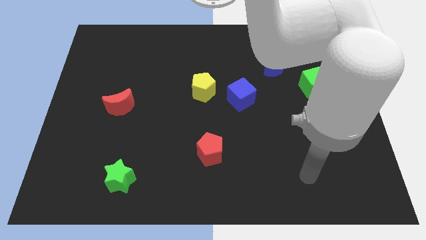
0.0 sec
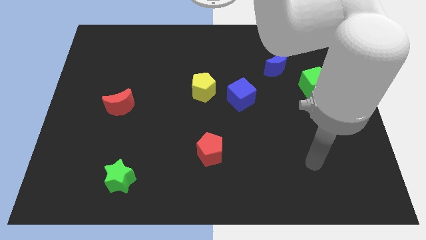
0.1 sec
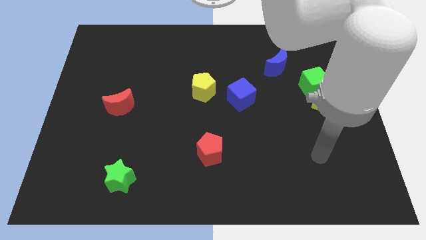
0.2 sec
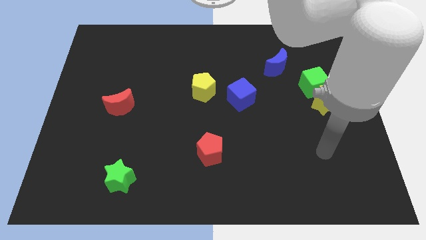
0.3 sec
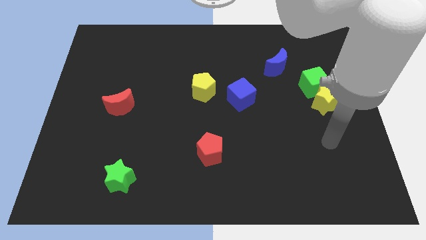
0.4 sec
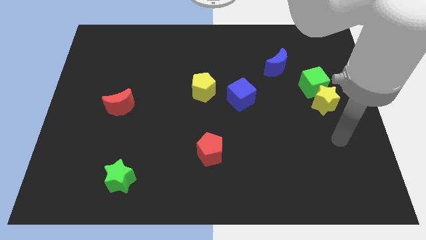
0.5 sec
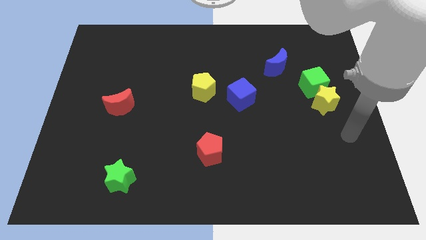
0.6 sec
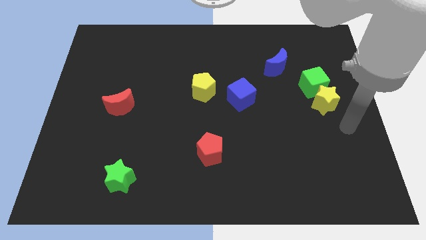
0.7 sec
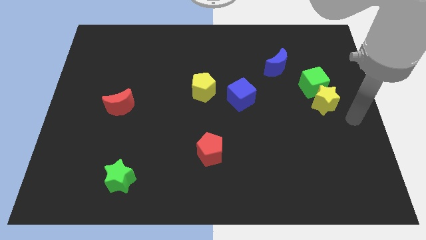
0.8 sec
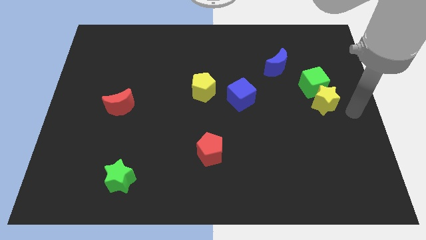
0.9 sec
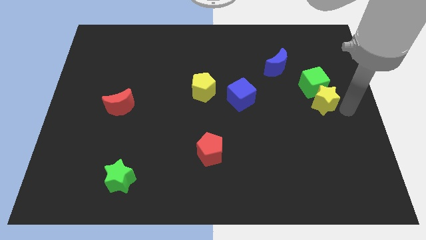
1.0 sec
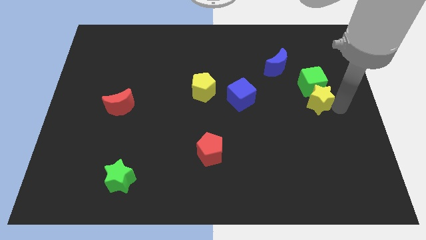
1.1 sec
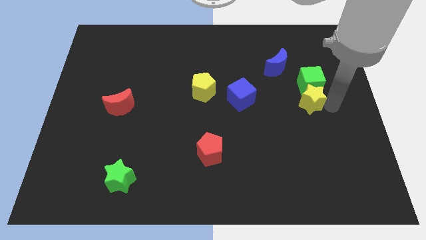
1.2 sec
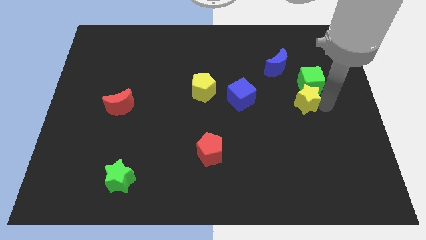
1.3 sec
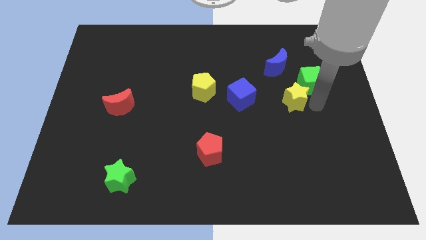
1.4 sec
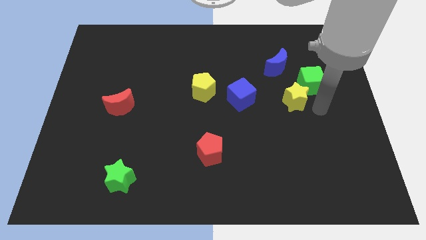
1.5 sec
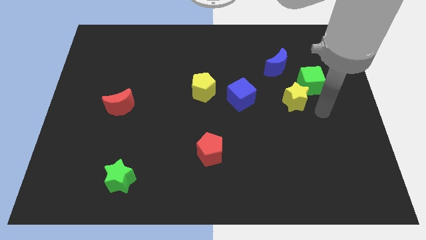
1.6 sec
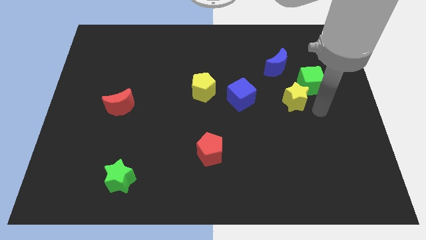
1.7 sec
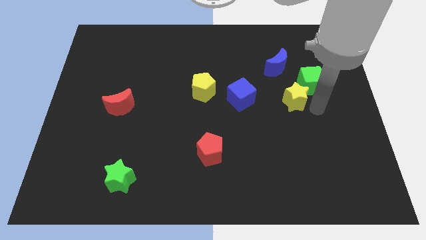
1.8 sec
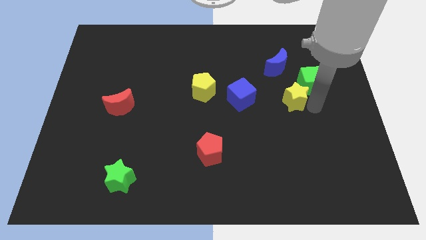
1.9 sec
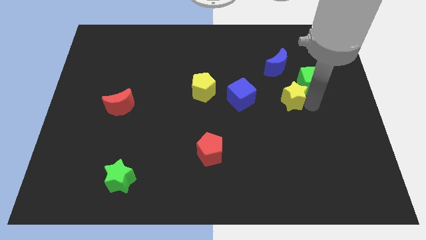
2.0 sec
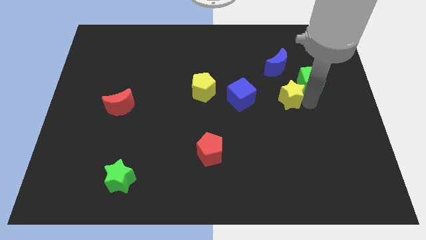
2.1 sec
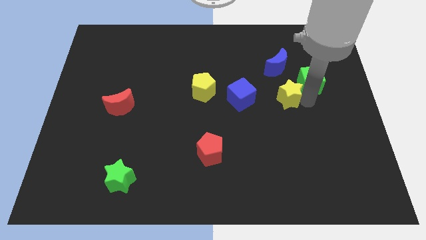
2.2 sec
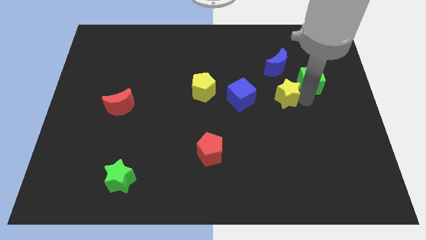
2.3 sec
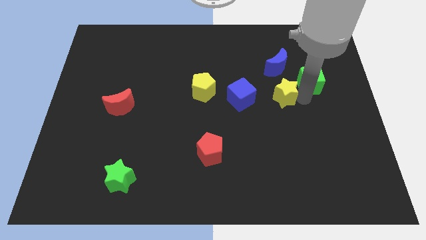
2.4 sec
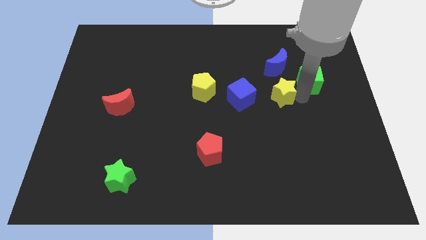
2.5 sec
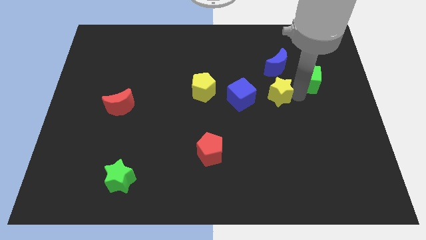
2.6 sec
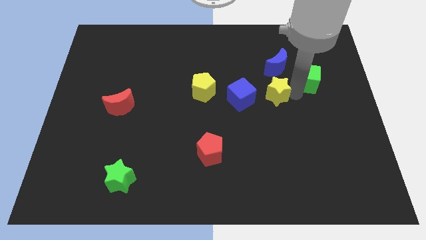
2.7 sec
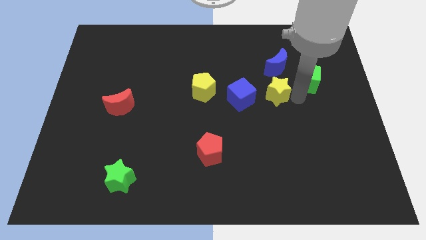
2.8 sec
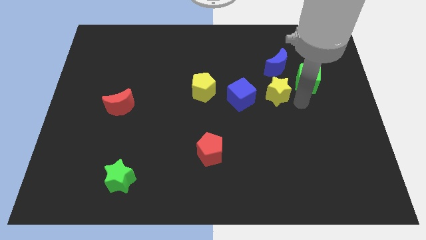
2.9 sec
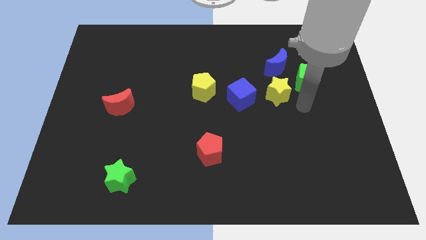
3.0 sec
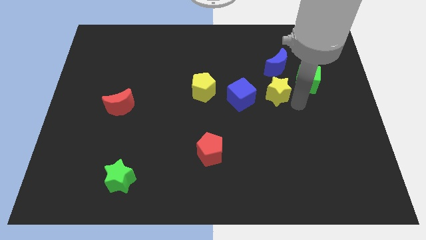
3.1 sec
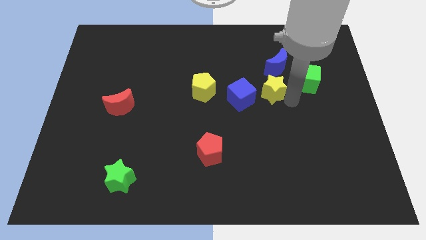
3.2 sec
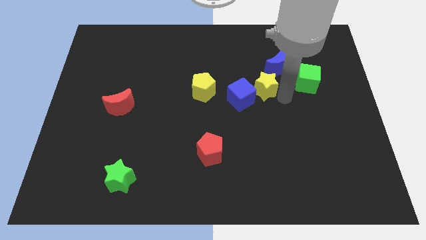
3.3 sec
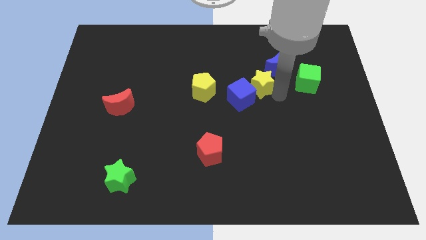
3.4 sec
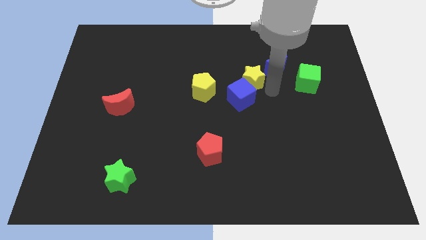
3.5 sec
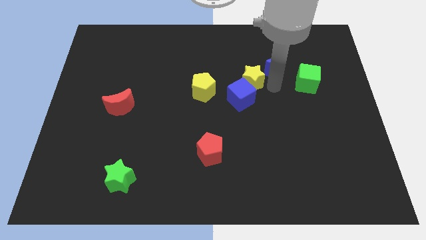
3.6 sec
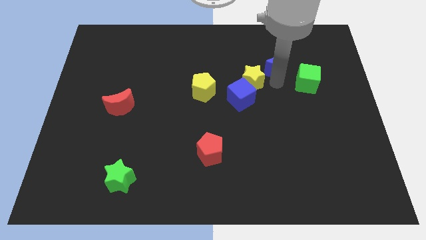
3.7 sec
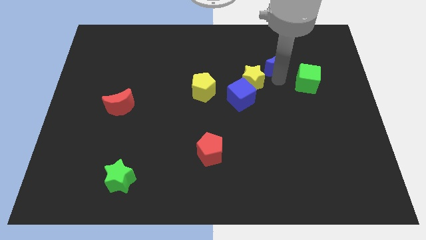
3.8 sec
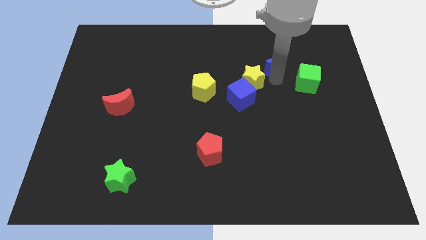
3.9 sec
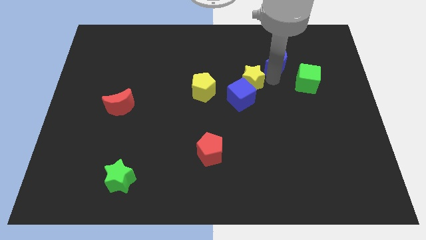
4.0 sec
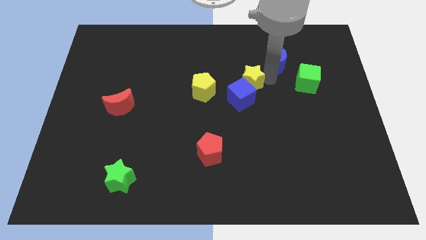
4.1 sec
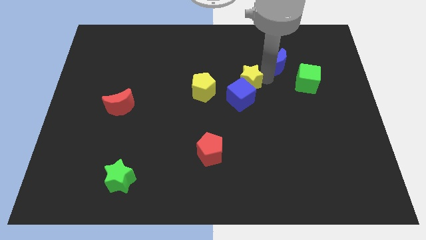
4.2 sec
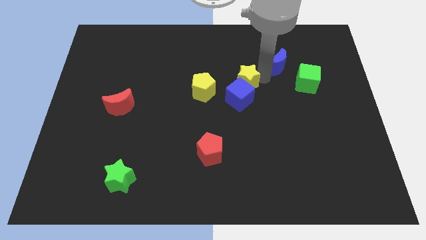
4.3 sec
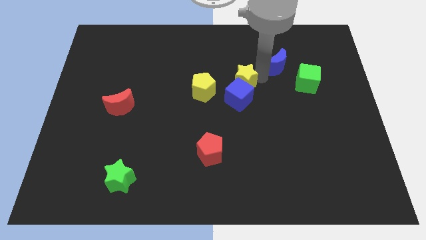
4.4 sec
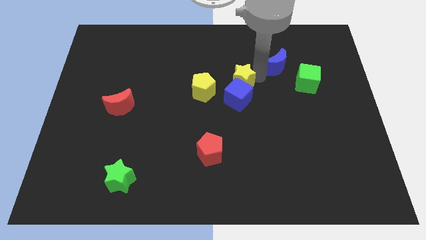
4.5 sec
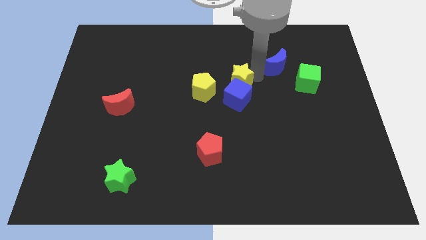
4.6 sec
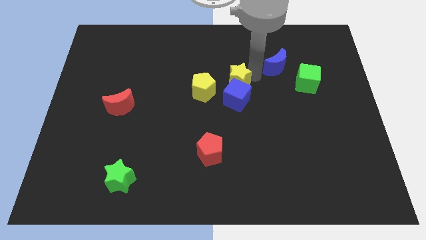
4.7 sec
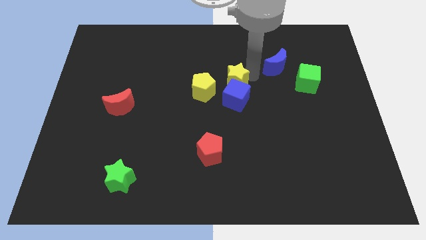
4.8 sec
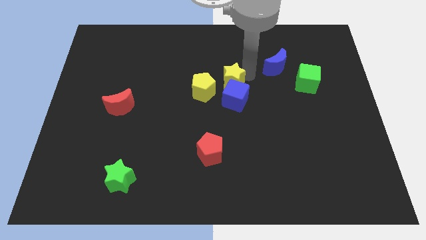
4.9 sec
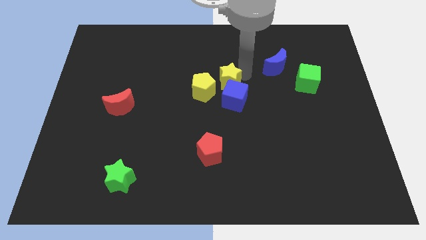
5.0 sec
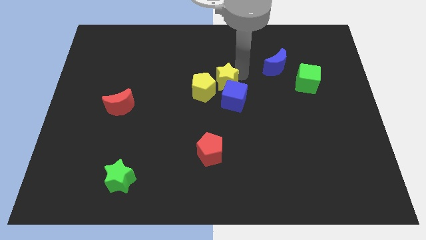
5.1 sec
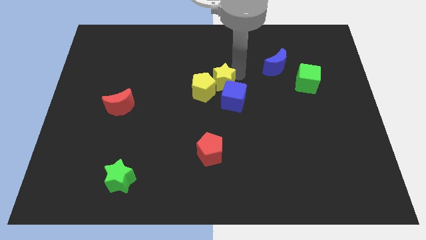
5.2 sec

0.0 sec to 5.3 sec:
move the yellow star next to the yellow pentagon

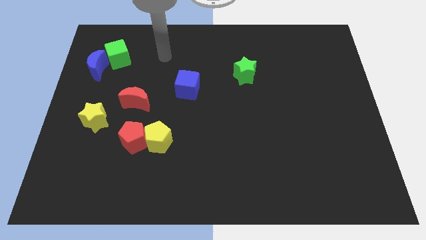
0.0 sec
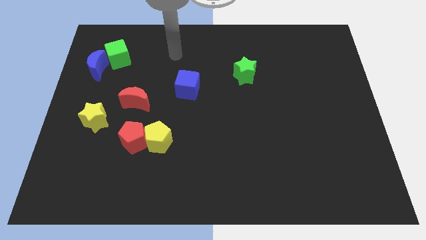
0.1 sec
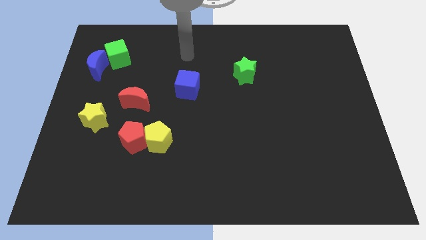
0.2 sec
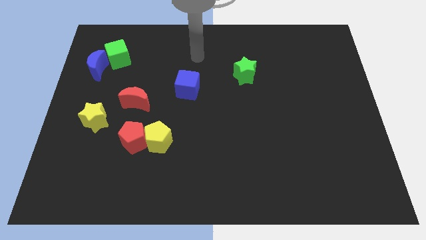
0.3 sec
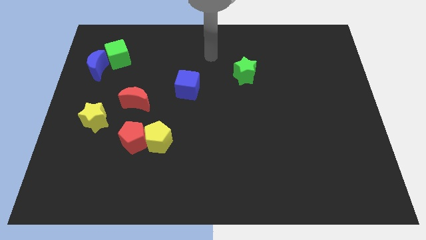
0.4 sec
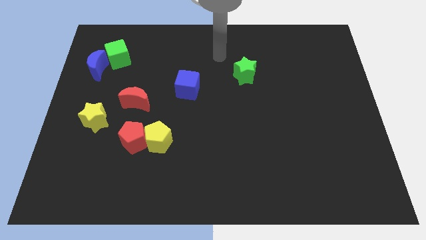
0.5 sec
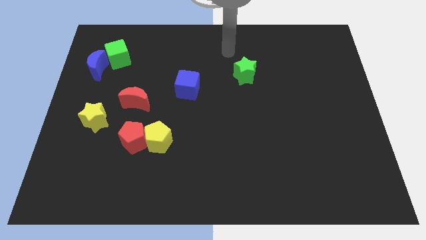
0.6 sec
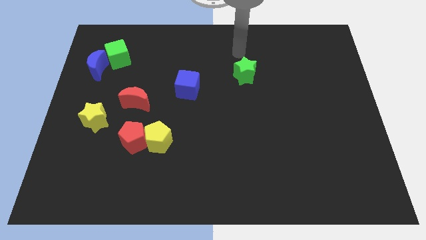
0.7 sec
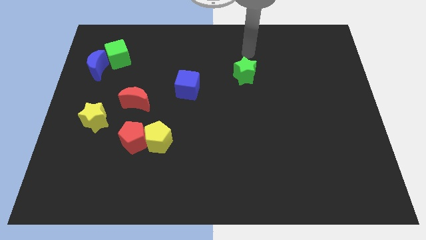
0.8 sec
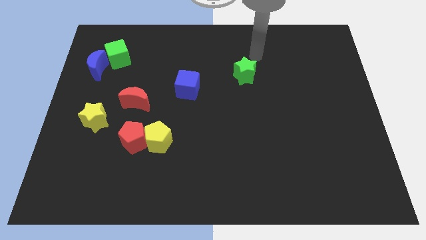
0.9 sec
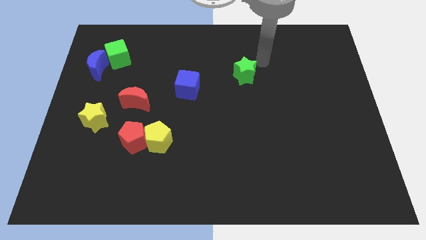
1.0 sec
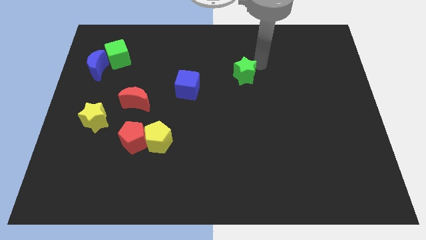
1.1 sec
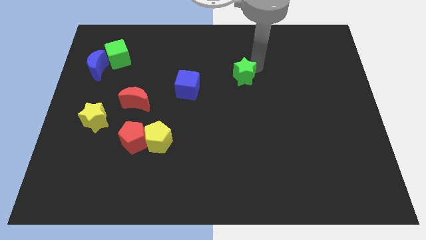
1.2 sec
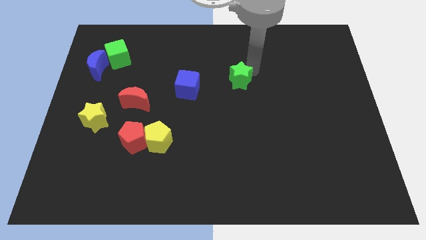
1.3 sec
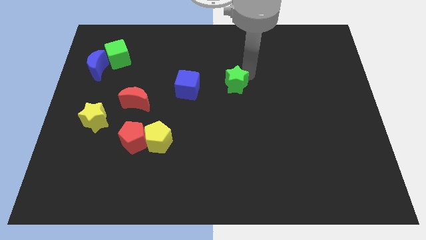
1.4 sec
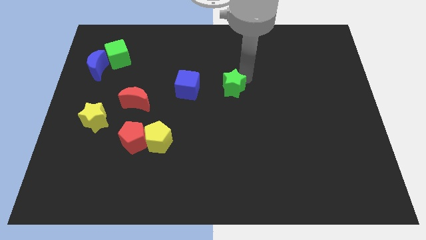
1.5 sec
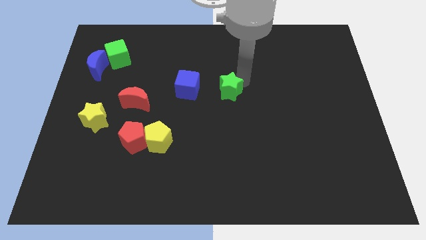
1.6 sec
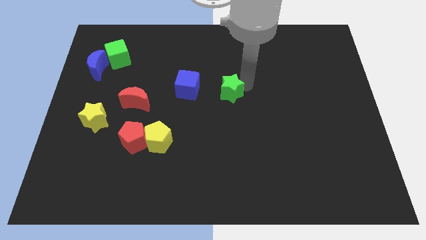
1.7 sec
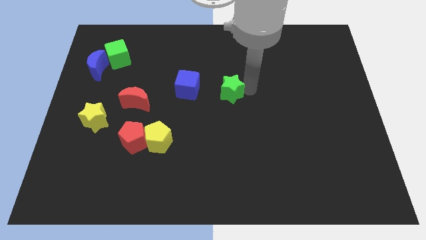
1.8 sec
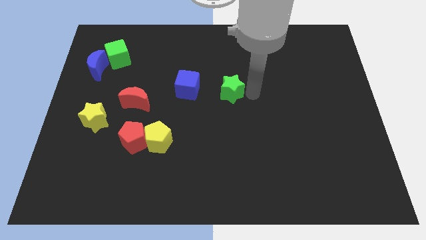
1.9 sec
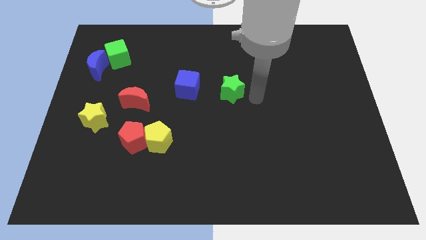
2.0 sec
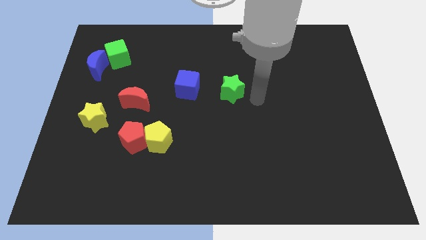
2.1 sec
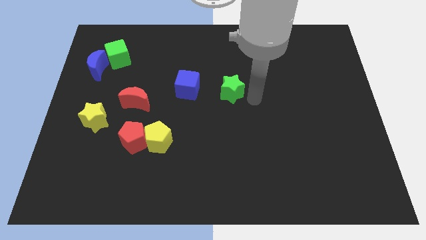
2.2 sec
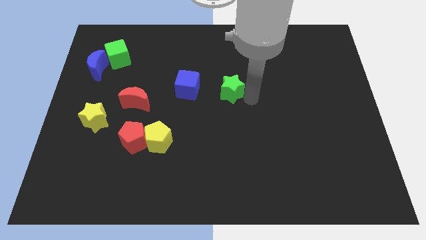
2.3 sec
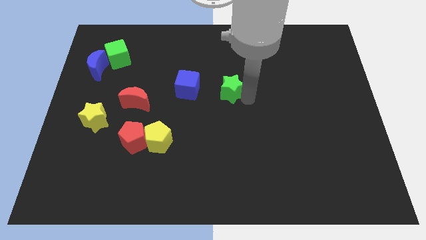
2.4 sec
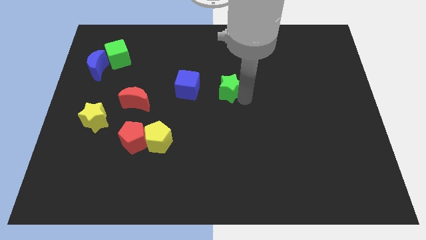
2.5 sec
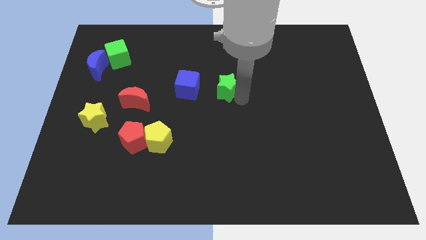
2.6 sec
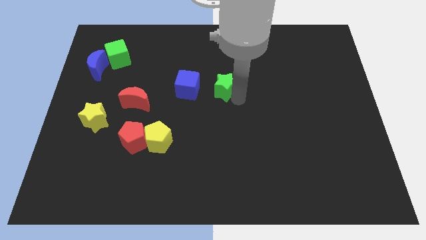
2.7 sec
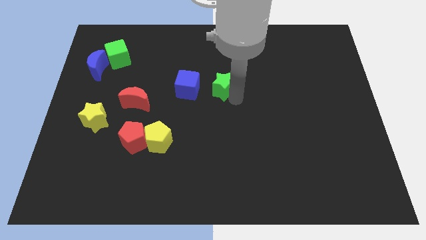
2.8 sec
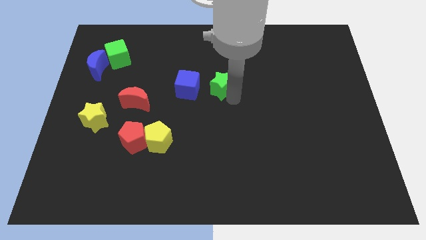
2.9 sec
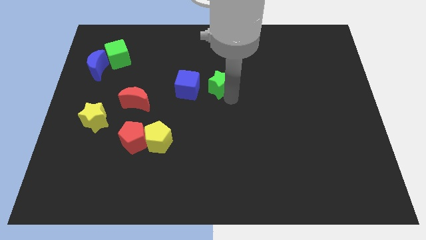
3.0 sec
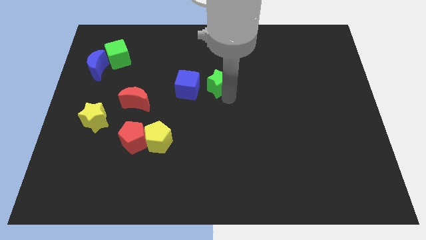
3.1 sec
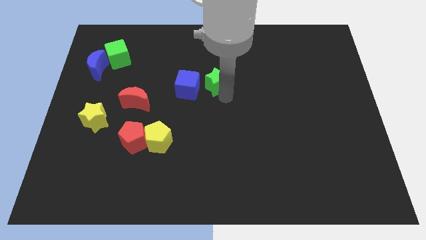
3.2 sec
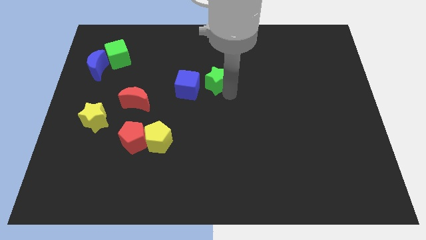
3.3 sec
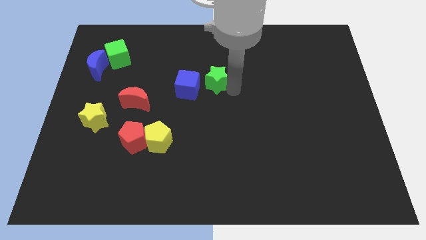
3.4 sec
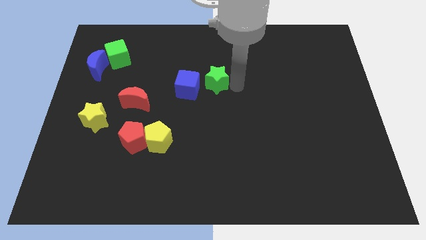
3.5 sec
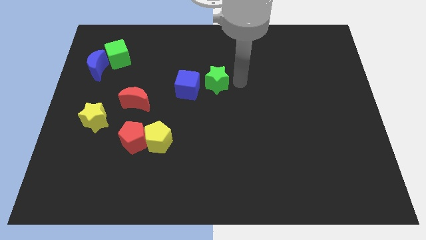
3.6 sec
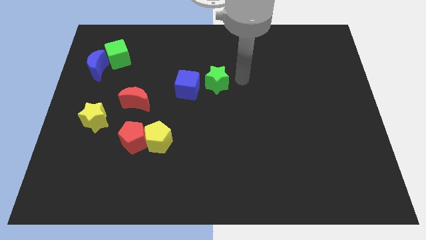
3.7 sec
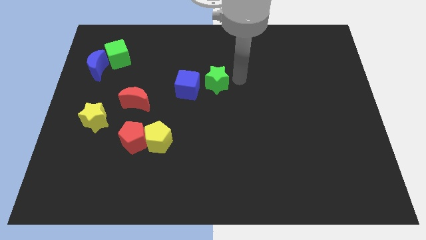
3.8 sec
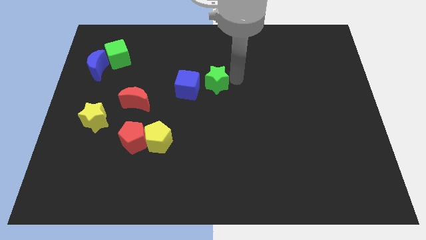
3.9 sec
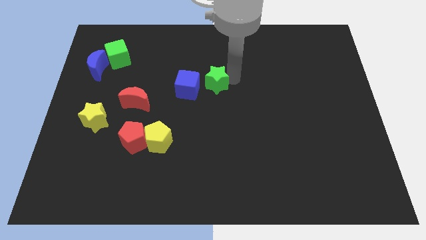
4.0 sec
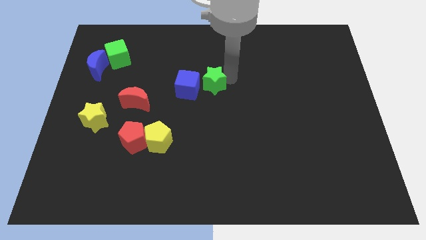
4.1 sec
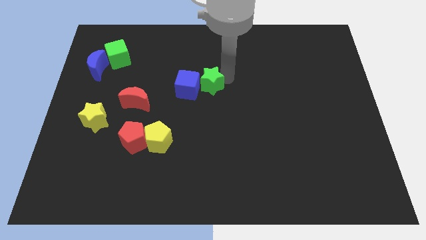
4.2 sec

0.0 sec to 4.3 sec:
slide the green star next to the blue cube
